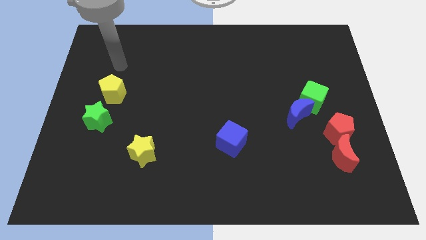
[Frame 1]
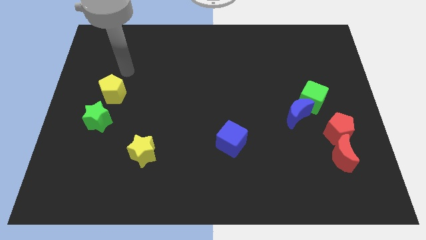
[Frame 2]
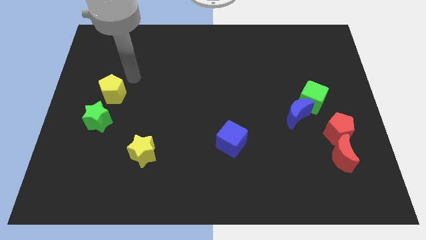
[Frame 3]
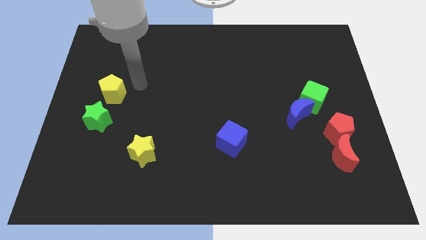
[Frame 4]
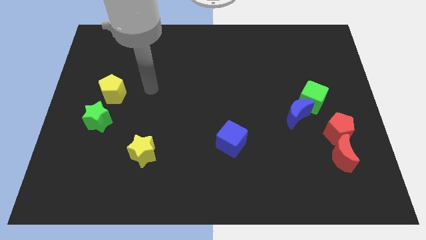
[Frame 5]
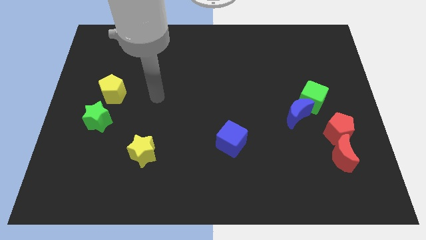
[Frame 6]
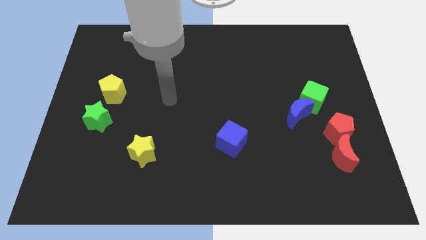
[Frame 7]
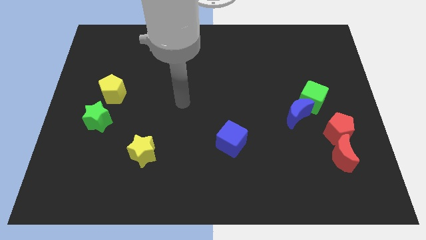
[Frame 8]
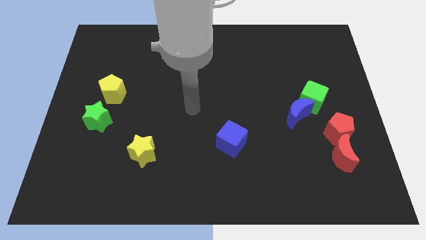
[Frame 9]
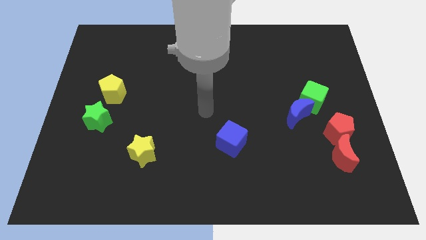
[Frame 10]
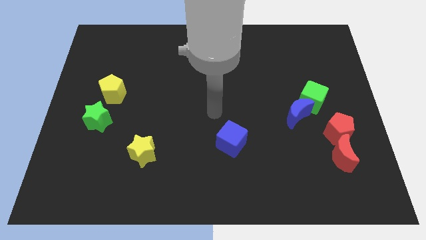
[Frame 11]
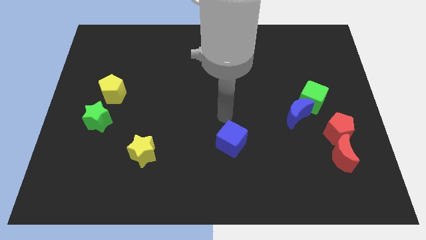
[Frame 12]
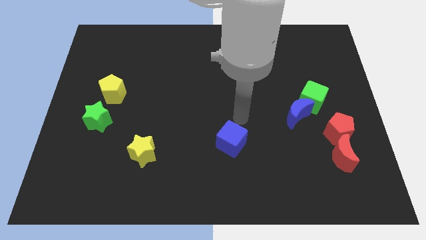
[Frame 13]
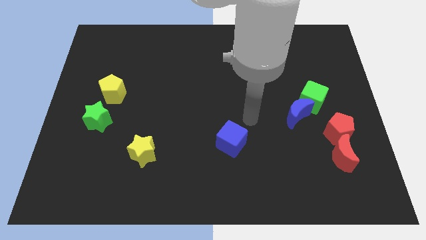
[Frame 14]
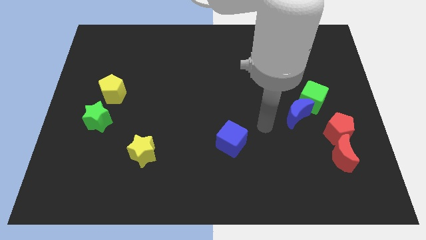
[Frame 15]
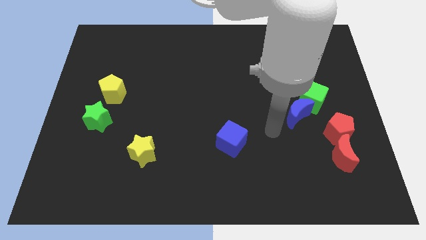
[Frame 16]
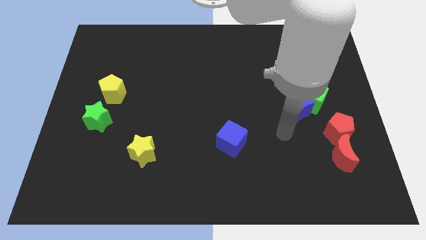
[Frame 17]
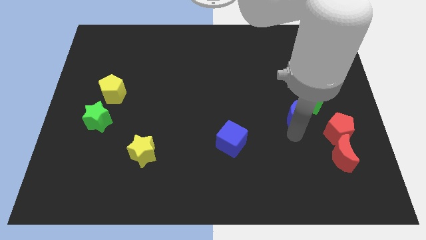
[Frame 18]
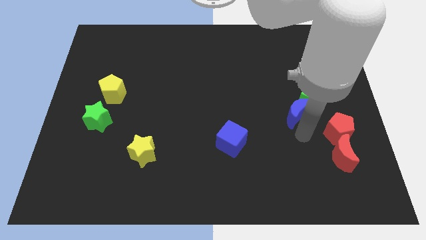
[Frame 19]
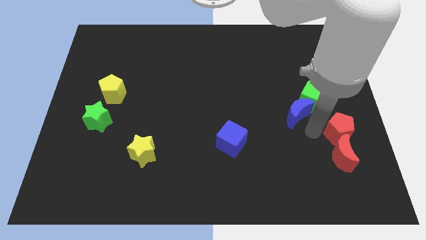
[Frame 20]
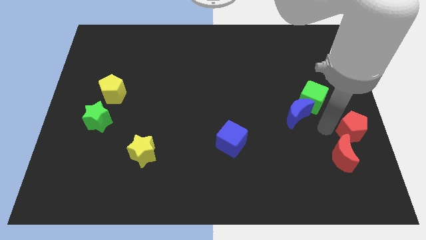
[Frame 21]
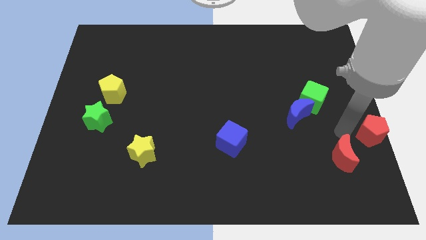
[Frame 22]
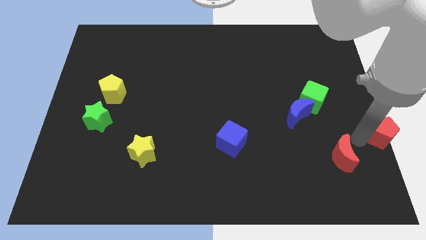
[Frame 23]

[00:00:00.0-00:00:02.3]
move the red moon away from the red pentagon

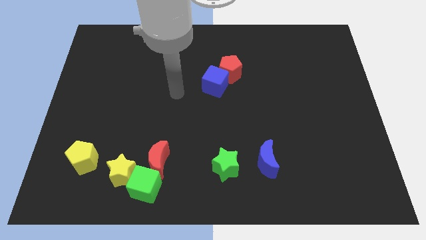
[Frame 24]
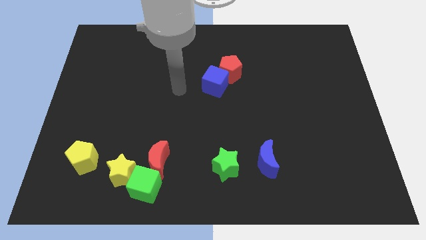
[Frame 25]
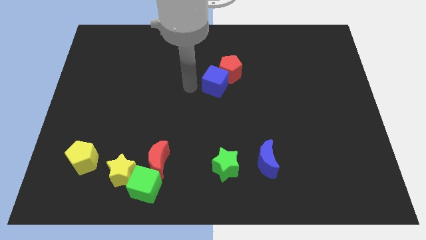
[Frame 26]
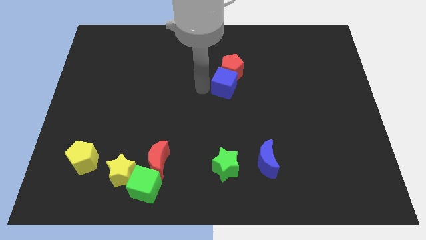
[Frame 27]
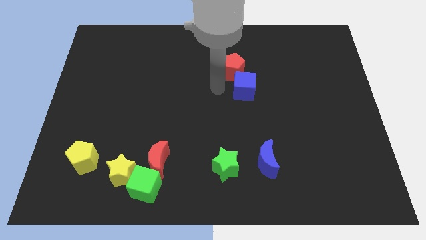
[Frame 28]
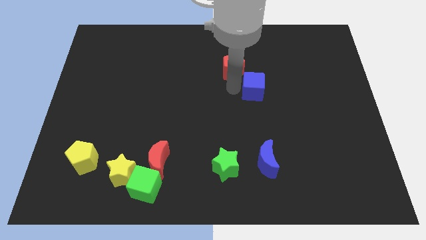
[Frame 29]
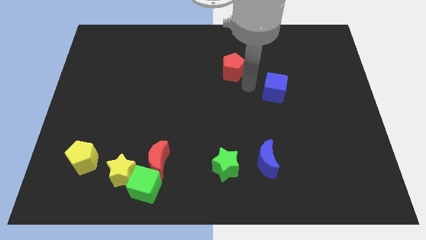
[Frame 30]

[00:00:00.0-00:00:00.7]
move the red pentagon away from the blue cube

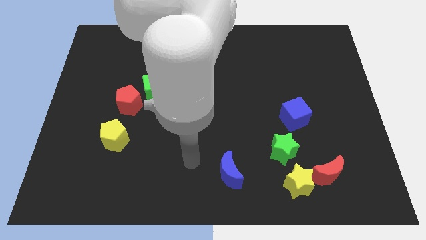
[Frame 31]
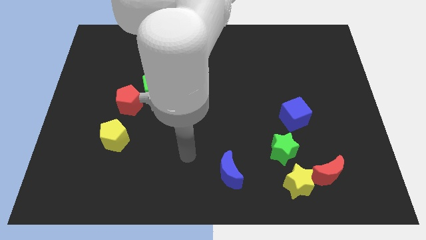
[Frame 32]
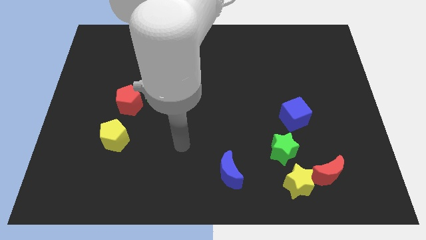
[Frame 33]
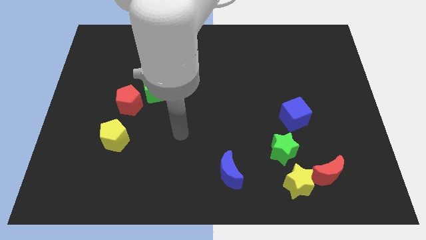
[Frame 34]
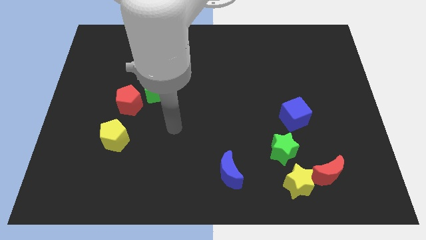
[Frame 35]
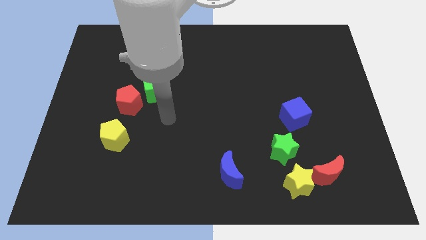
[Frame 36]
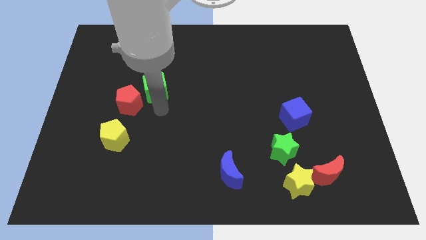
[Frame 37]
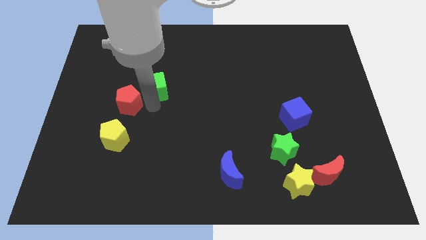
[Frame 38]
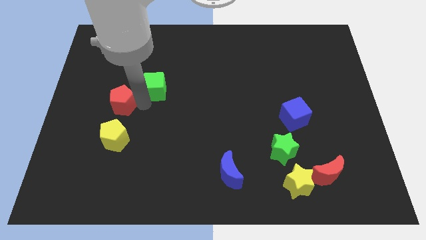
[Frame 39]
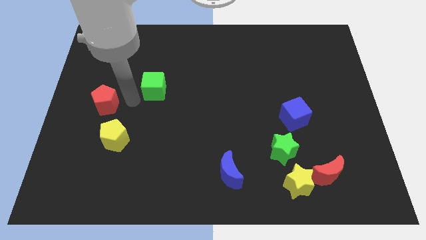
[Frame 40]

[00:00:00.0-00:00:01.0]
separate the green cube from the red pentagon

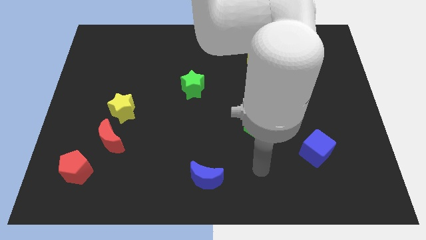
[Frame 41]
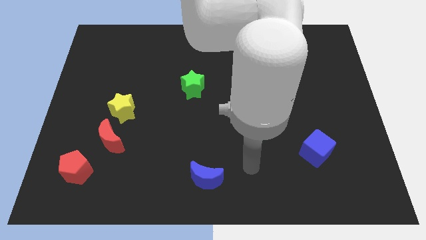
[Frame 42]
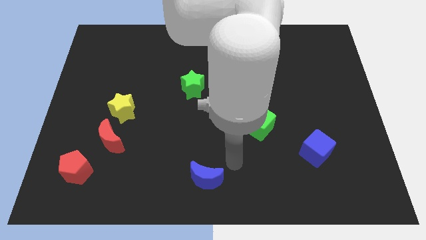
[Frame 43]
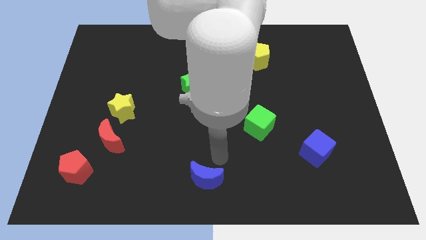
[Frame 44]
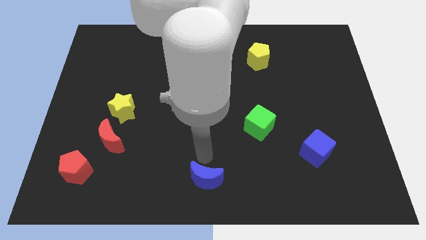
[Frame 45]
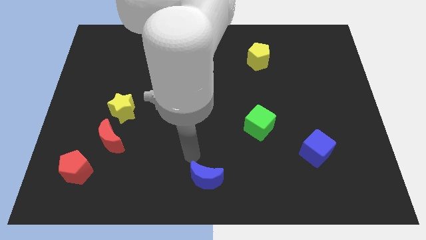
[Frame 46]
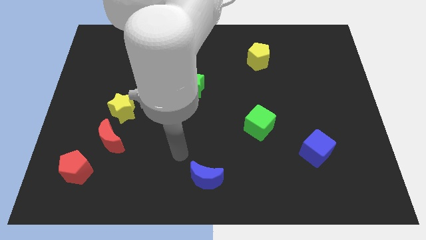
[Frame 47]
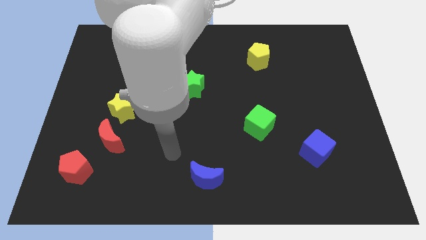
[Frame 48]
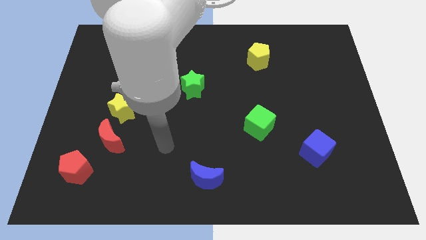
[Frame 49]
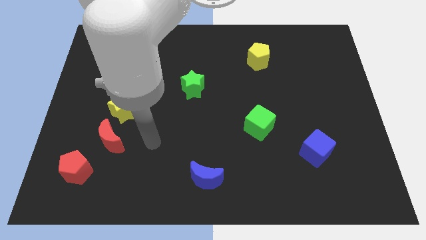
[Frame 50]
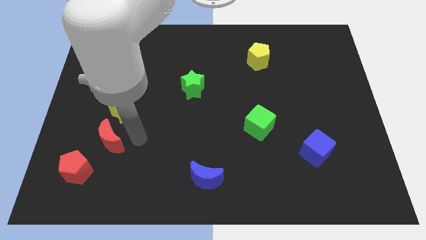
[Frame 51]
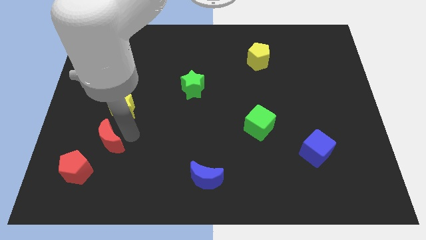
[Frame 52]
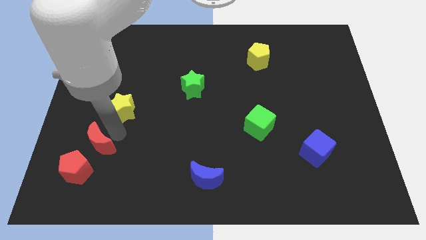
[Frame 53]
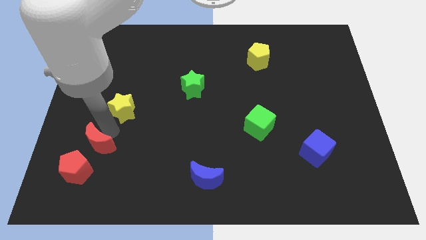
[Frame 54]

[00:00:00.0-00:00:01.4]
move the yellow star away from the red moon

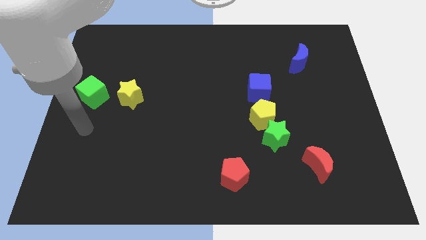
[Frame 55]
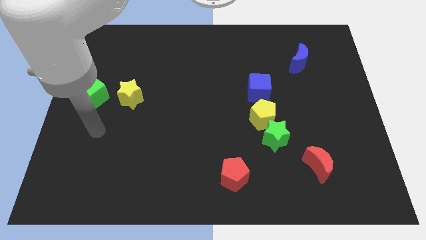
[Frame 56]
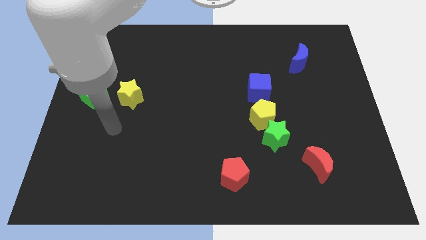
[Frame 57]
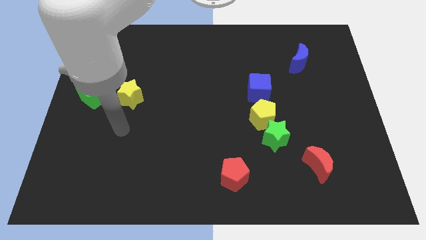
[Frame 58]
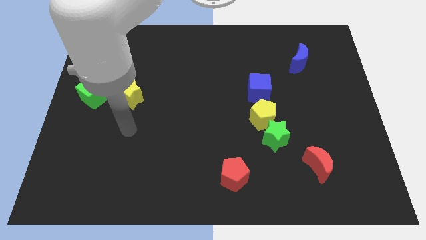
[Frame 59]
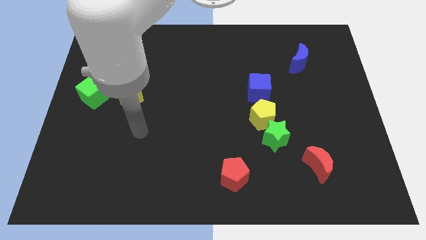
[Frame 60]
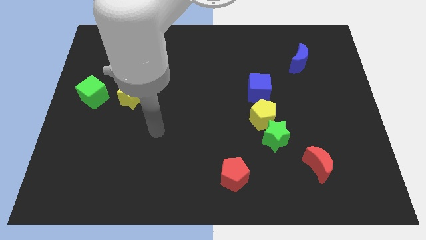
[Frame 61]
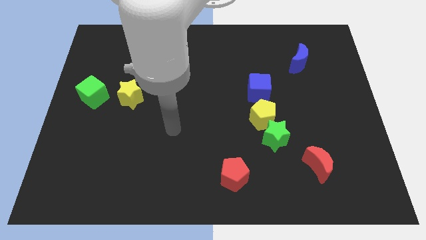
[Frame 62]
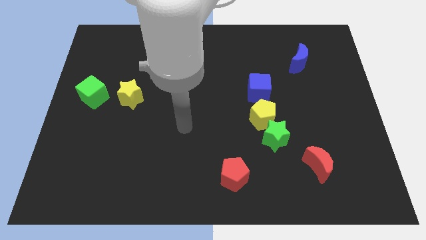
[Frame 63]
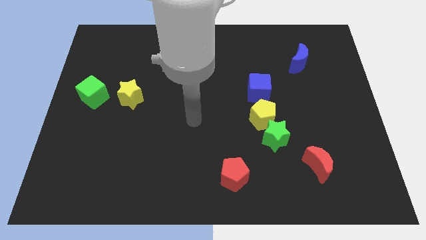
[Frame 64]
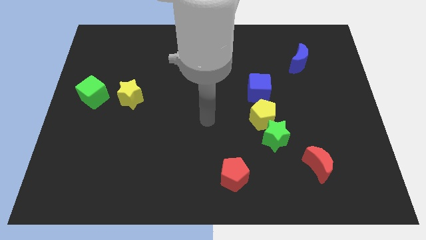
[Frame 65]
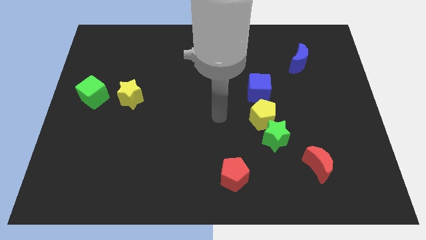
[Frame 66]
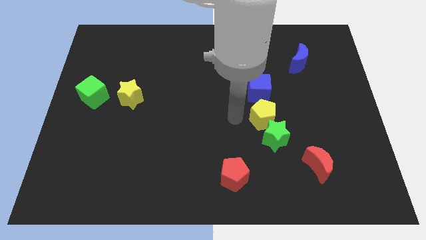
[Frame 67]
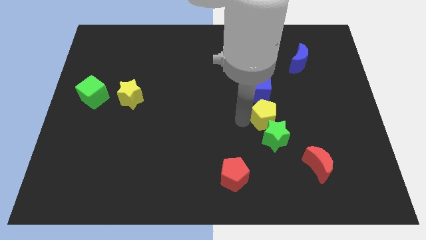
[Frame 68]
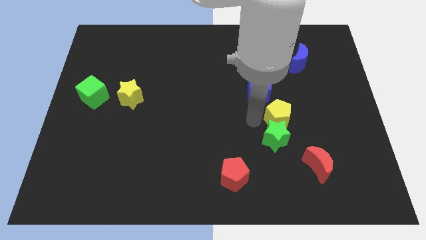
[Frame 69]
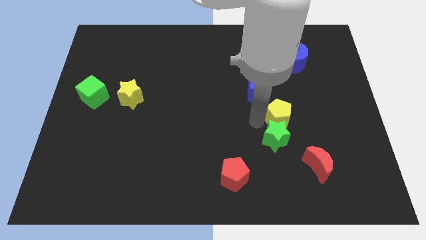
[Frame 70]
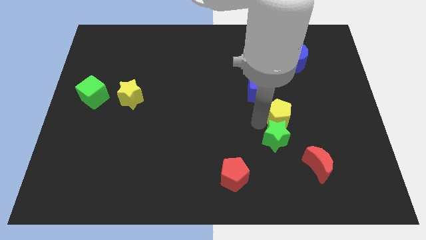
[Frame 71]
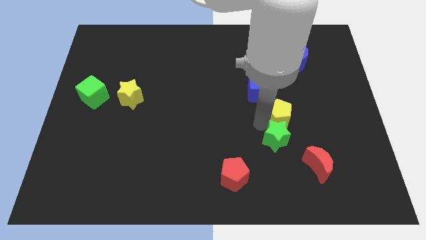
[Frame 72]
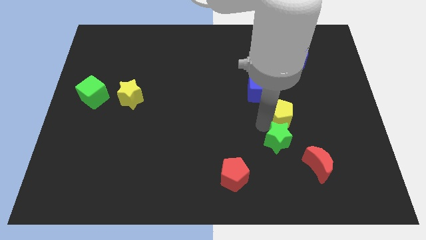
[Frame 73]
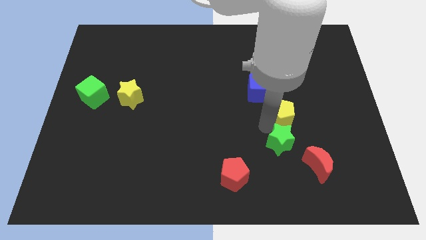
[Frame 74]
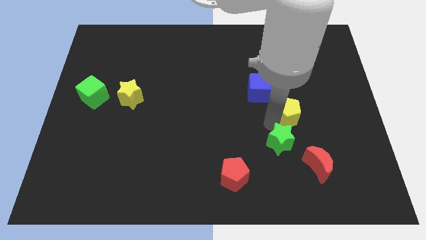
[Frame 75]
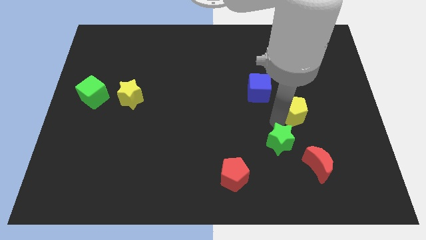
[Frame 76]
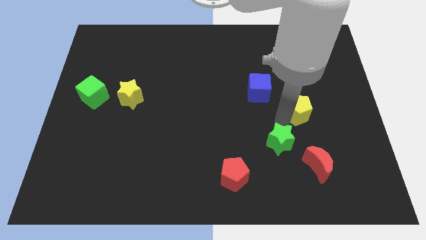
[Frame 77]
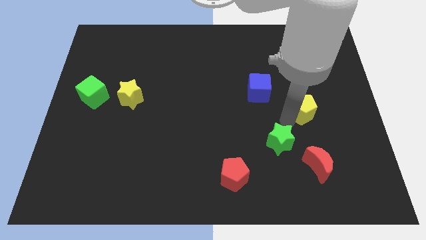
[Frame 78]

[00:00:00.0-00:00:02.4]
separate the green star from the yellow pentagon

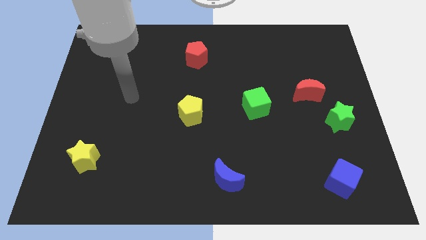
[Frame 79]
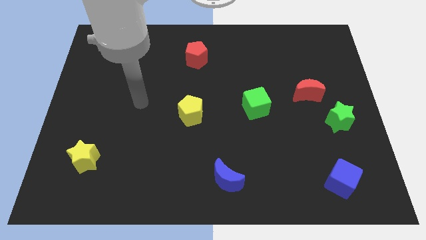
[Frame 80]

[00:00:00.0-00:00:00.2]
separate the red moon from the green star

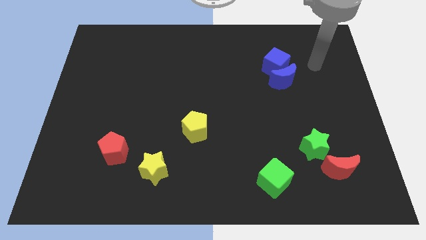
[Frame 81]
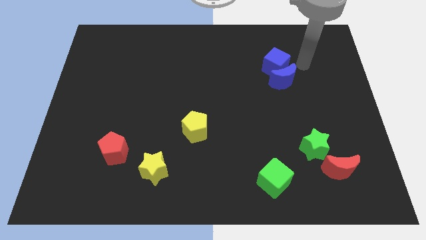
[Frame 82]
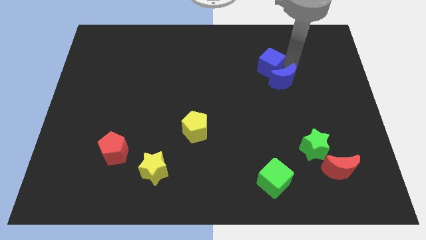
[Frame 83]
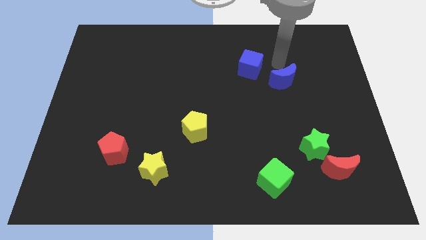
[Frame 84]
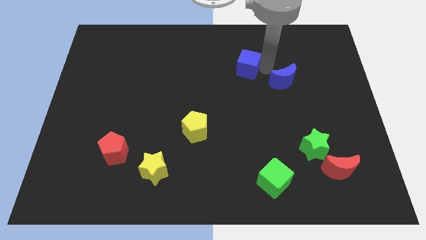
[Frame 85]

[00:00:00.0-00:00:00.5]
separate the blue moon from the blue cube

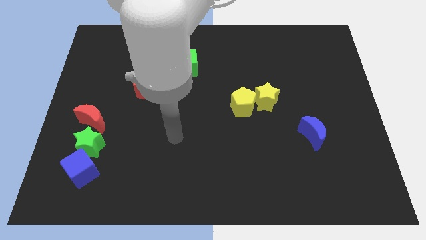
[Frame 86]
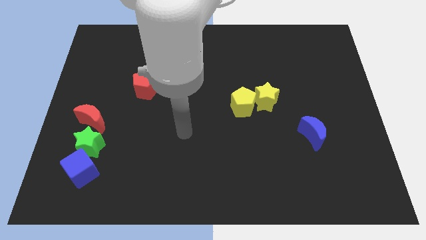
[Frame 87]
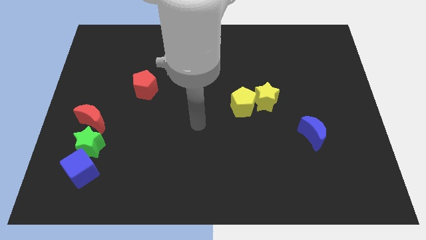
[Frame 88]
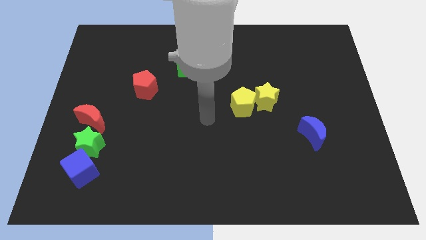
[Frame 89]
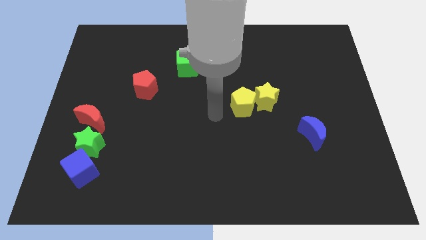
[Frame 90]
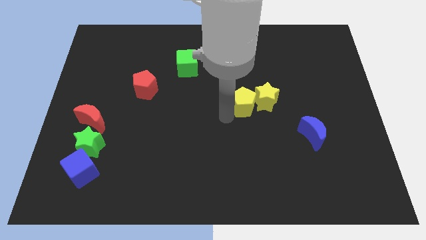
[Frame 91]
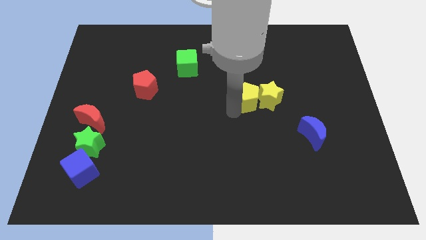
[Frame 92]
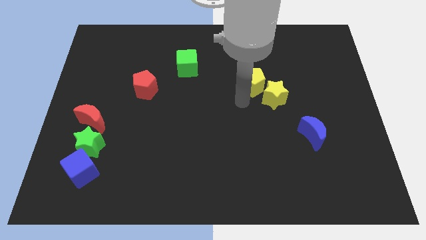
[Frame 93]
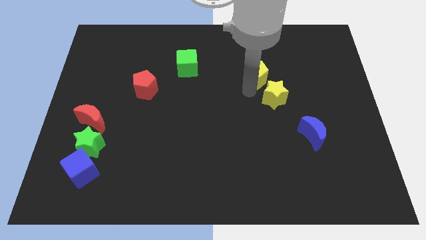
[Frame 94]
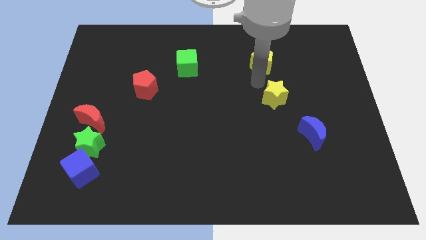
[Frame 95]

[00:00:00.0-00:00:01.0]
move the yellow star away from the yellow pentagon

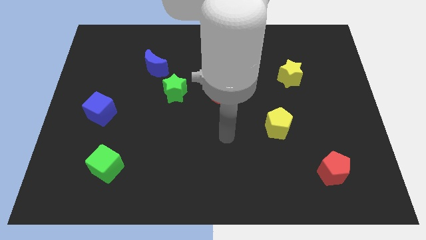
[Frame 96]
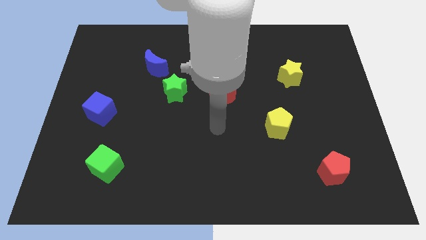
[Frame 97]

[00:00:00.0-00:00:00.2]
pull the blue moon apart from the green star
